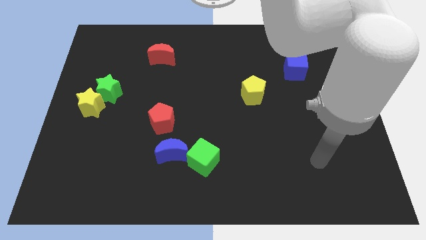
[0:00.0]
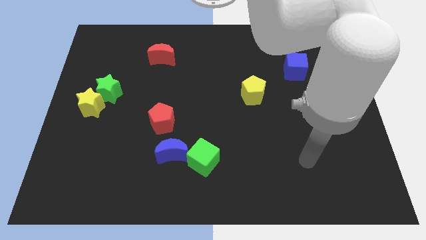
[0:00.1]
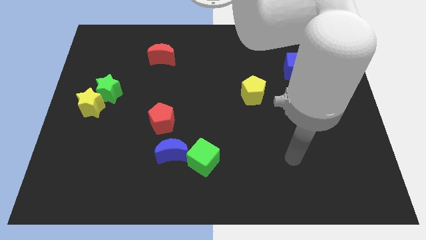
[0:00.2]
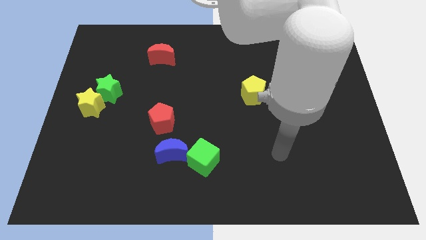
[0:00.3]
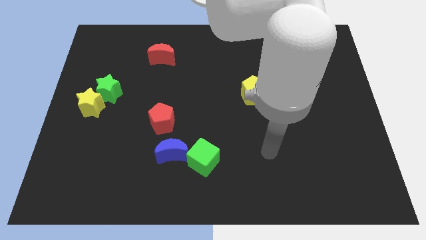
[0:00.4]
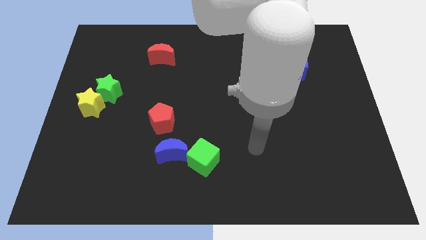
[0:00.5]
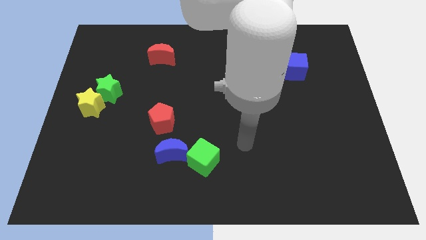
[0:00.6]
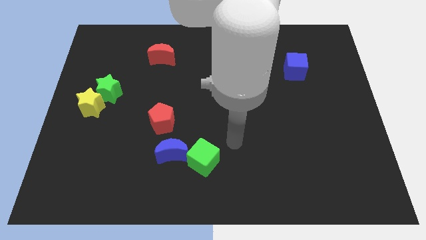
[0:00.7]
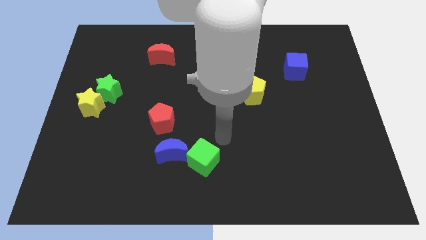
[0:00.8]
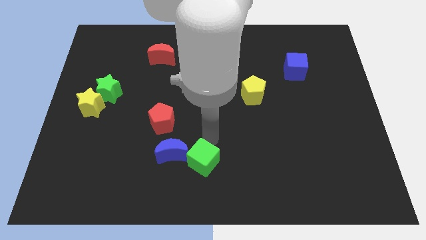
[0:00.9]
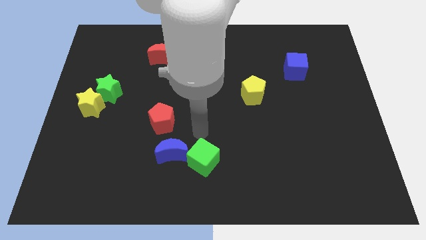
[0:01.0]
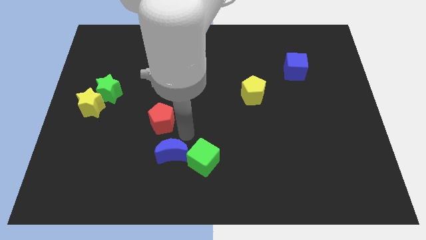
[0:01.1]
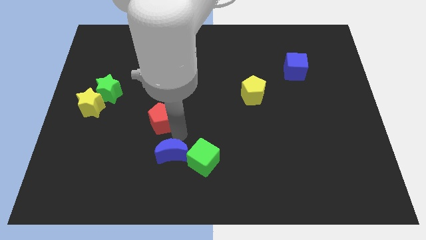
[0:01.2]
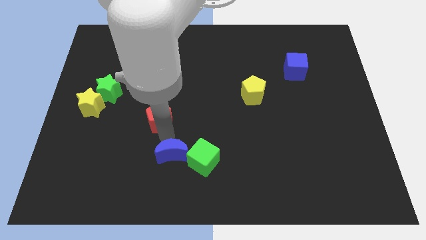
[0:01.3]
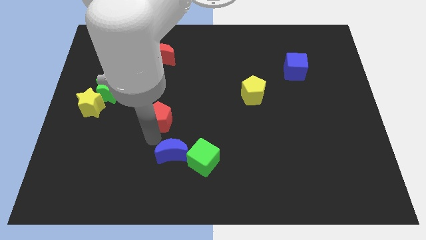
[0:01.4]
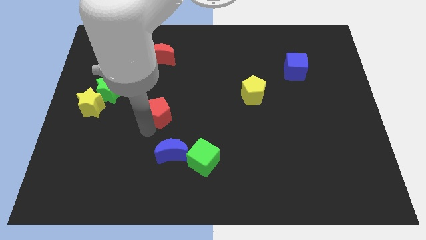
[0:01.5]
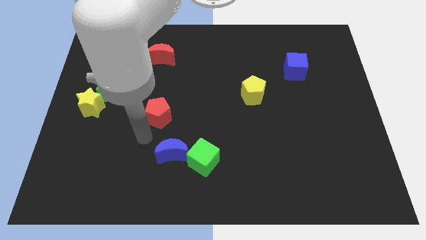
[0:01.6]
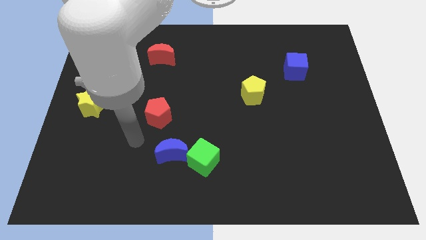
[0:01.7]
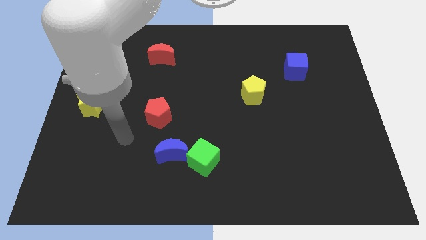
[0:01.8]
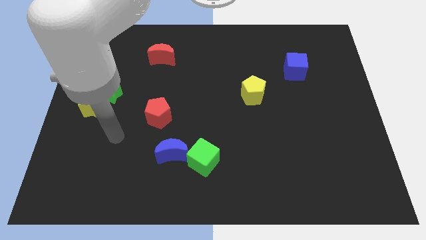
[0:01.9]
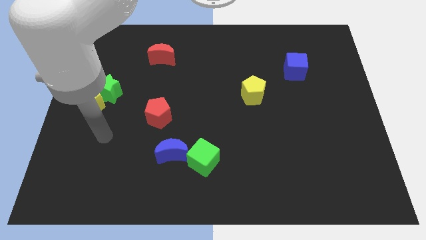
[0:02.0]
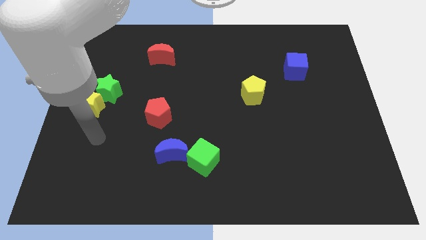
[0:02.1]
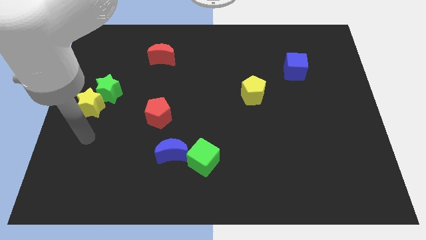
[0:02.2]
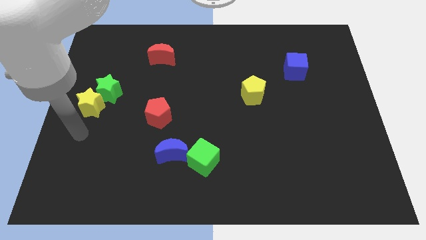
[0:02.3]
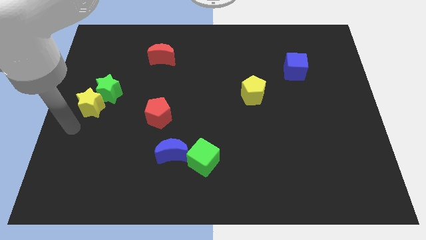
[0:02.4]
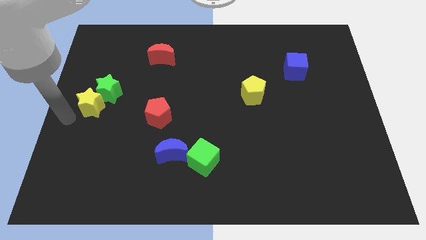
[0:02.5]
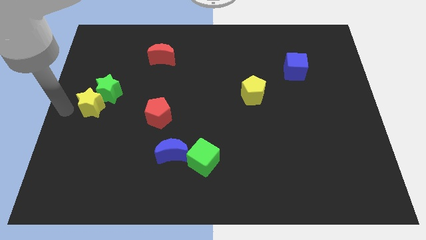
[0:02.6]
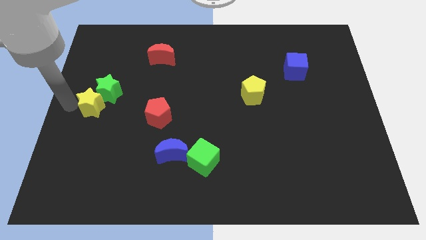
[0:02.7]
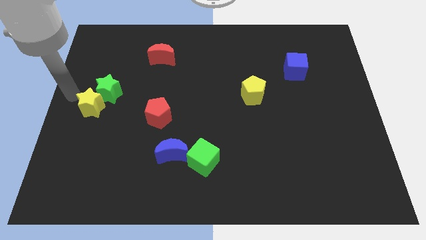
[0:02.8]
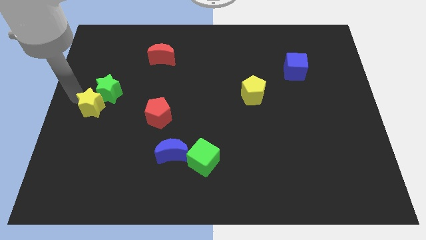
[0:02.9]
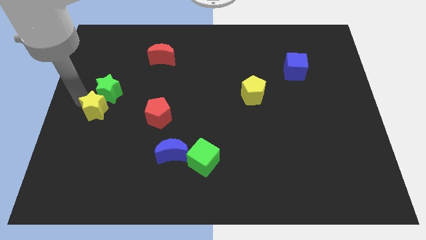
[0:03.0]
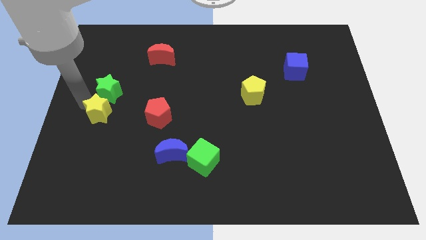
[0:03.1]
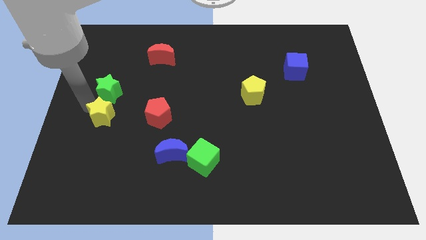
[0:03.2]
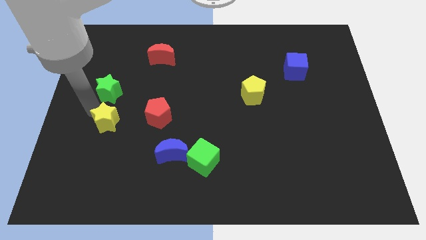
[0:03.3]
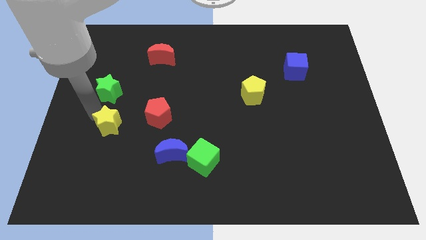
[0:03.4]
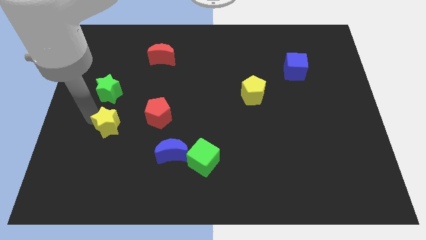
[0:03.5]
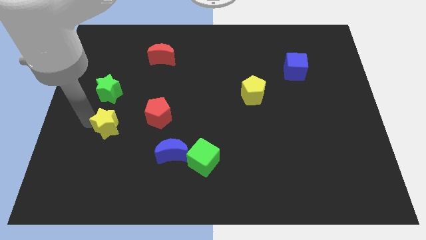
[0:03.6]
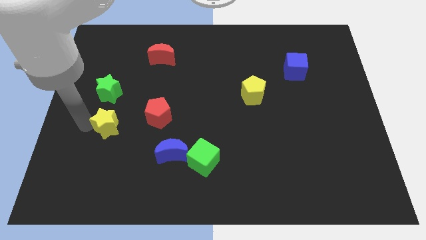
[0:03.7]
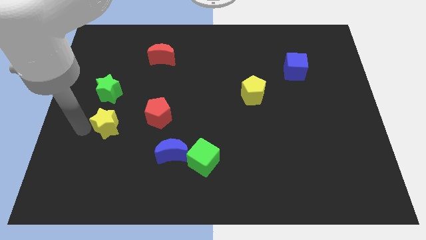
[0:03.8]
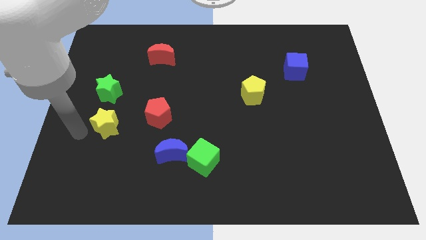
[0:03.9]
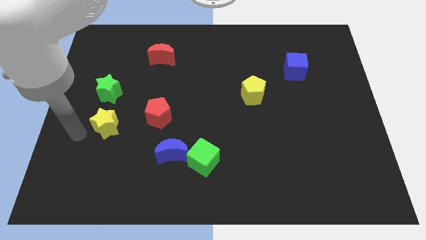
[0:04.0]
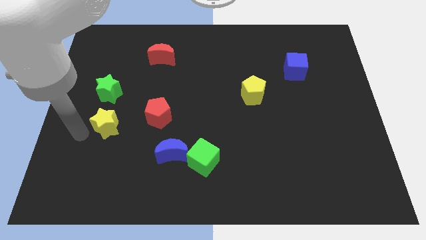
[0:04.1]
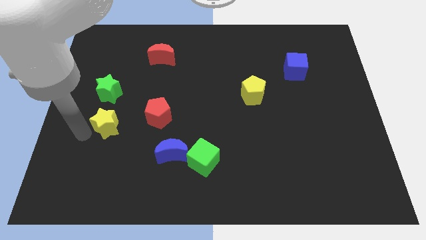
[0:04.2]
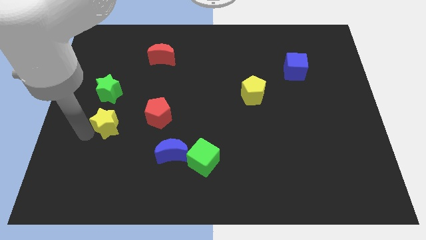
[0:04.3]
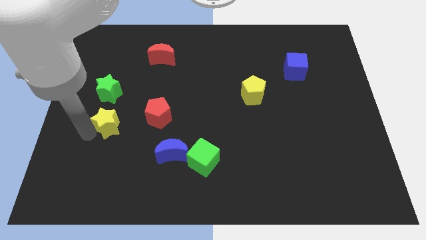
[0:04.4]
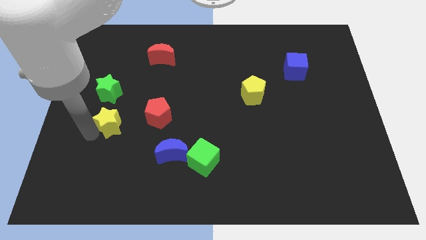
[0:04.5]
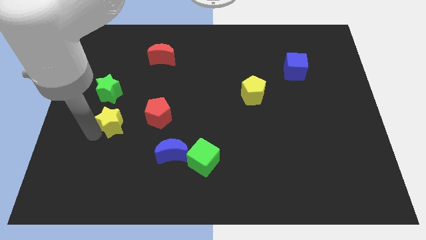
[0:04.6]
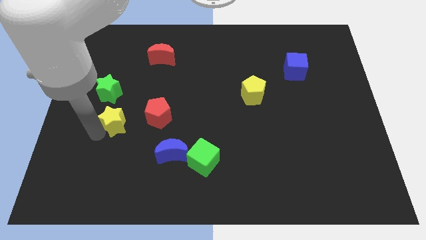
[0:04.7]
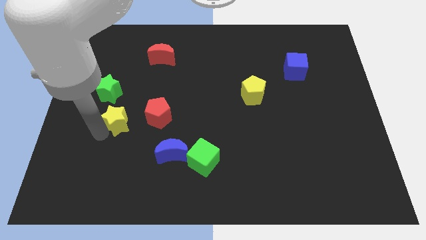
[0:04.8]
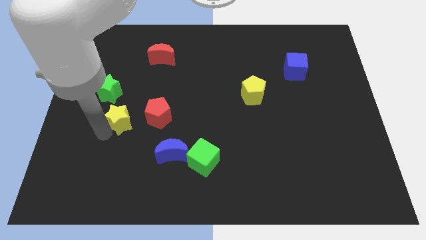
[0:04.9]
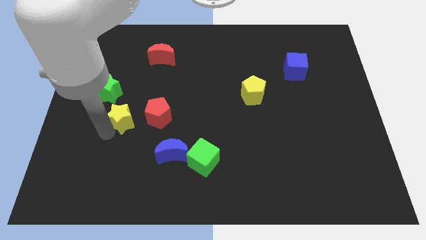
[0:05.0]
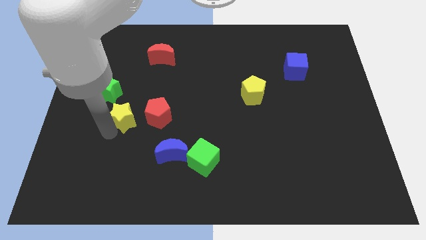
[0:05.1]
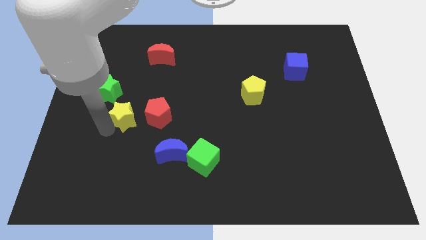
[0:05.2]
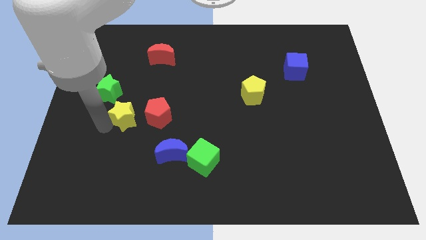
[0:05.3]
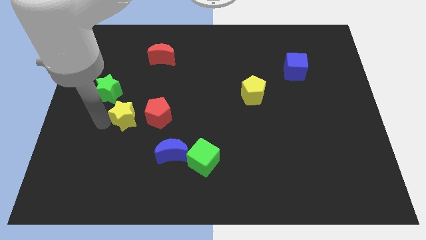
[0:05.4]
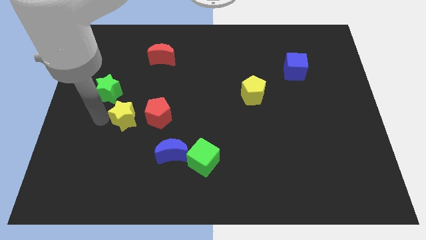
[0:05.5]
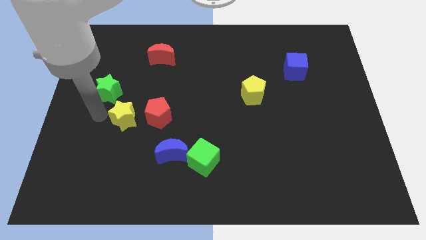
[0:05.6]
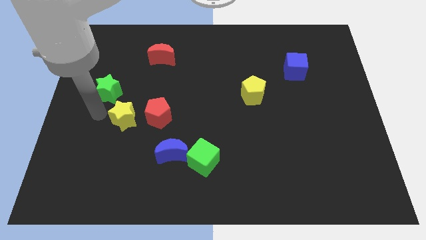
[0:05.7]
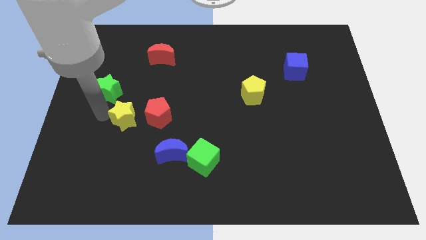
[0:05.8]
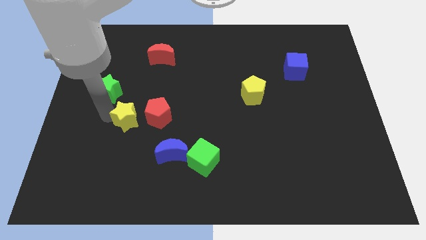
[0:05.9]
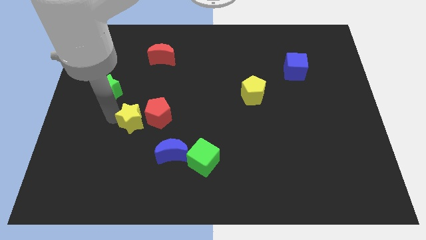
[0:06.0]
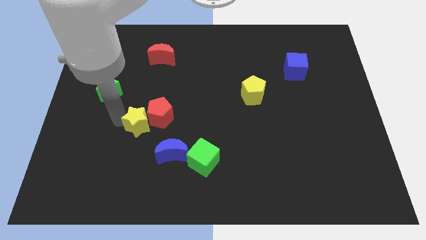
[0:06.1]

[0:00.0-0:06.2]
slide the yellow star close to the red pentagon
